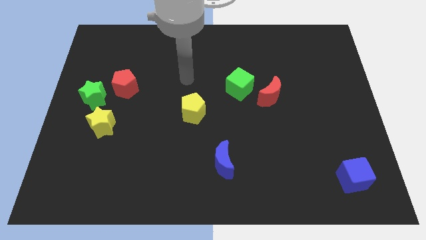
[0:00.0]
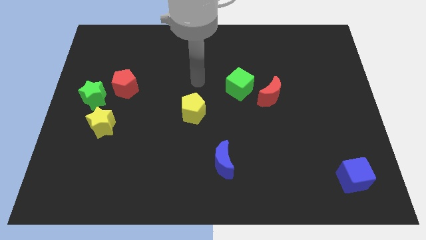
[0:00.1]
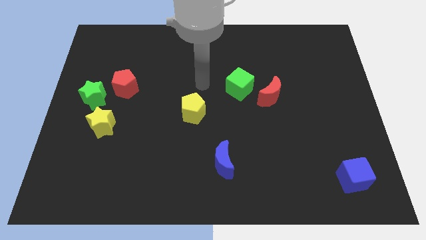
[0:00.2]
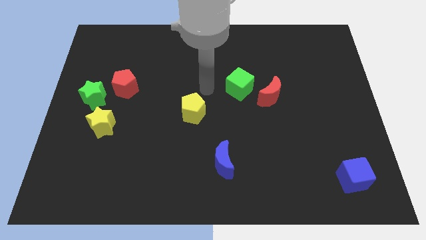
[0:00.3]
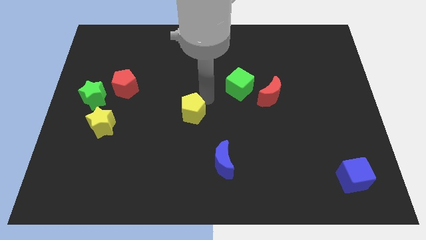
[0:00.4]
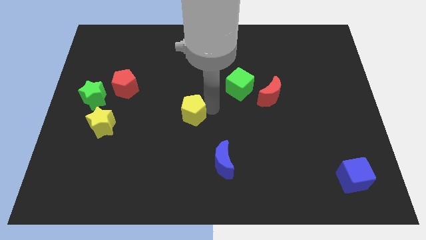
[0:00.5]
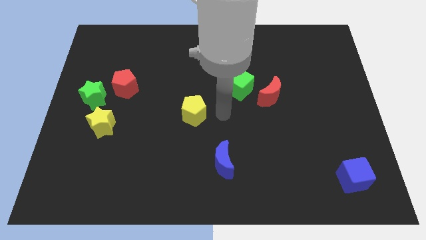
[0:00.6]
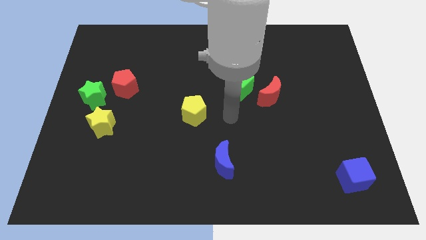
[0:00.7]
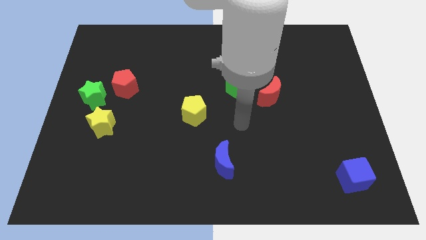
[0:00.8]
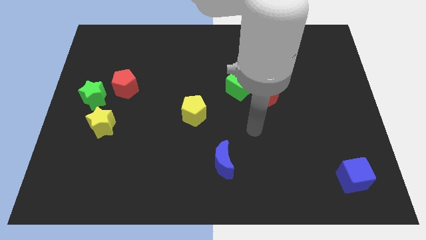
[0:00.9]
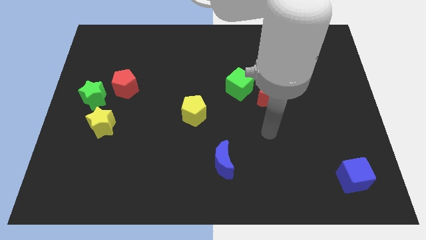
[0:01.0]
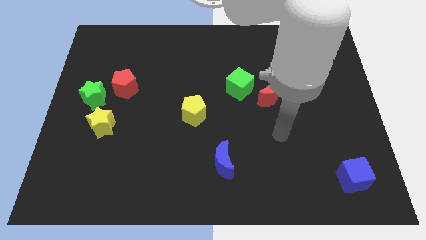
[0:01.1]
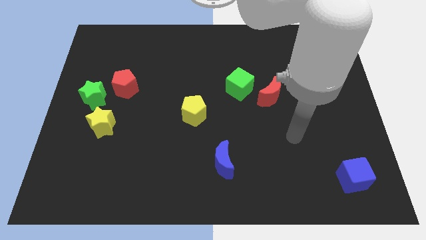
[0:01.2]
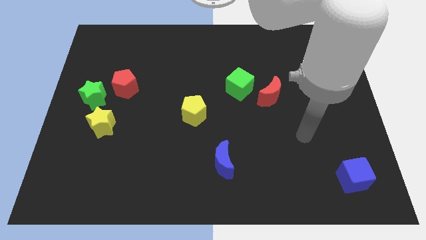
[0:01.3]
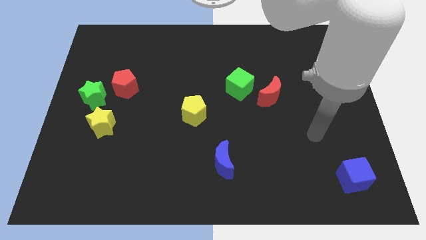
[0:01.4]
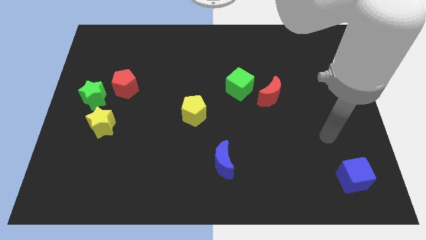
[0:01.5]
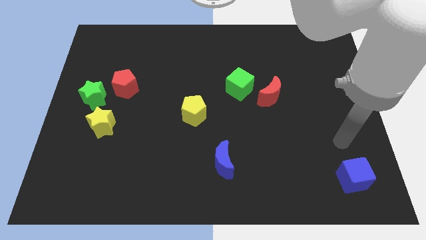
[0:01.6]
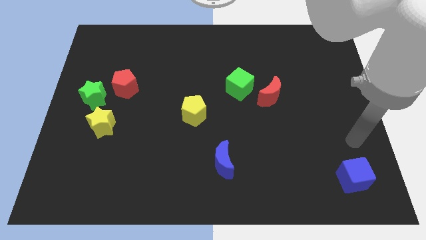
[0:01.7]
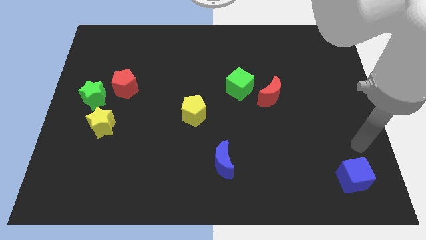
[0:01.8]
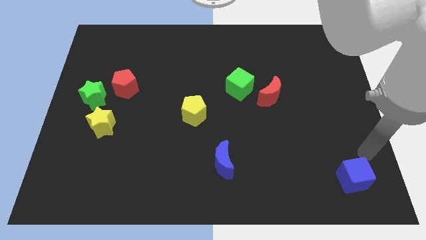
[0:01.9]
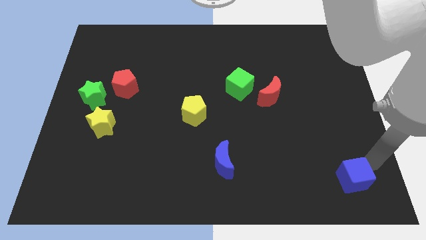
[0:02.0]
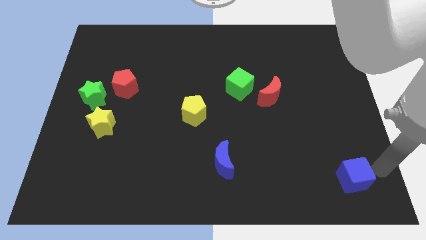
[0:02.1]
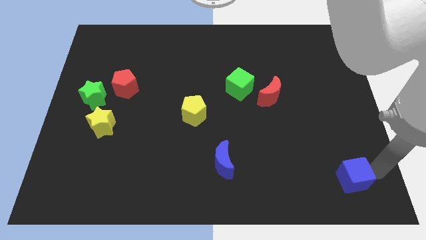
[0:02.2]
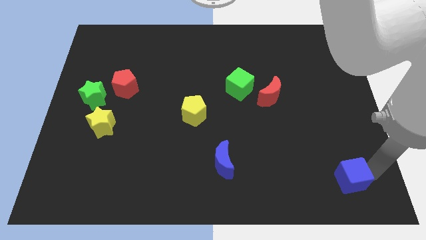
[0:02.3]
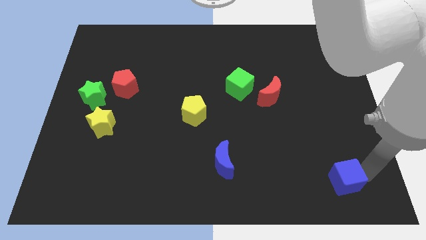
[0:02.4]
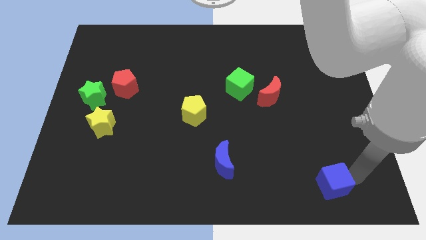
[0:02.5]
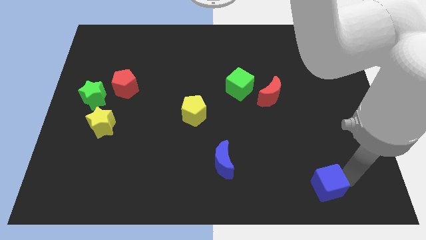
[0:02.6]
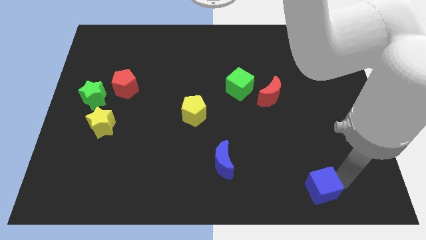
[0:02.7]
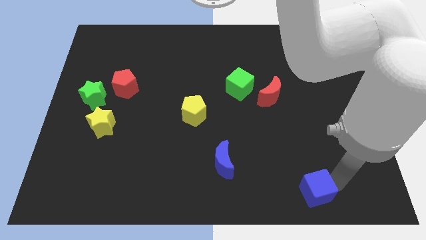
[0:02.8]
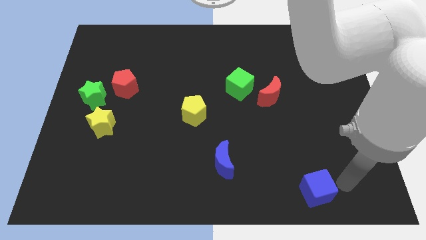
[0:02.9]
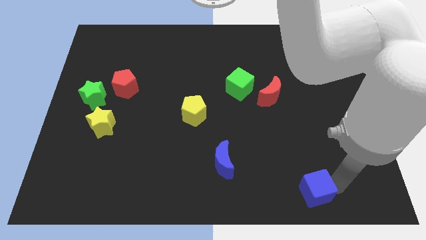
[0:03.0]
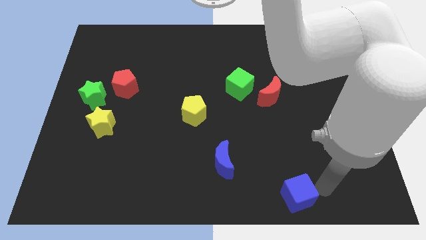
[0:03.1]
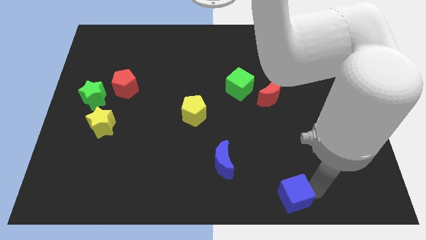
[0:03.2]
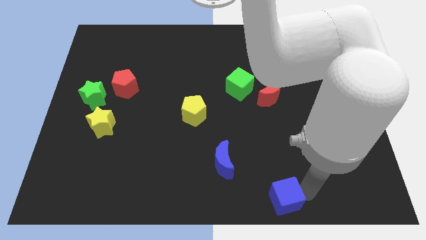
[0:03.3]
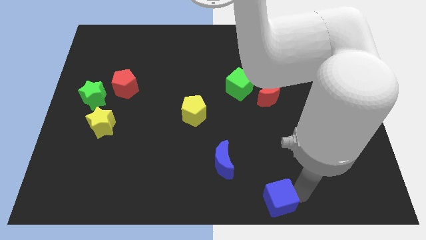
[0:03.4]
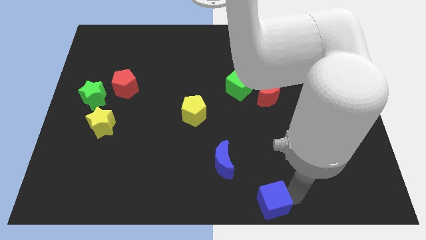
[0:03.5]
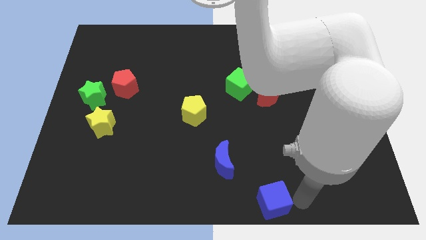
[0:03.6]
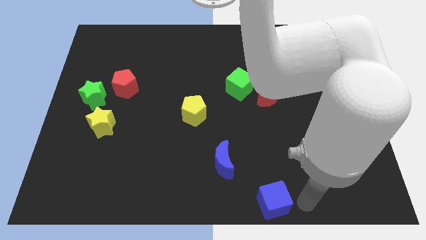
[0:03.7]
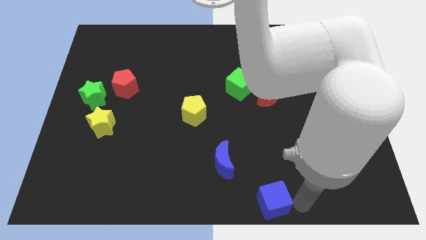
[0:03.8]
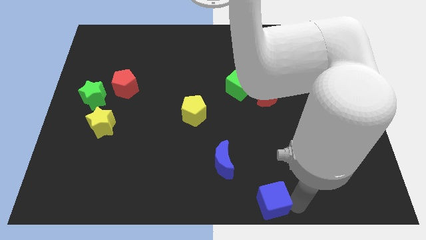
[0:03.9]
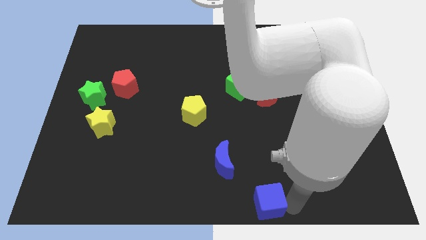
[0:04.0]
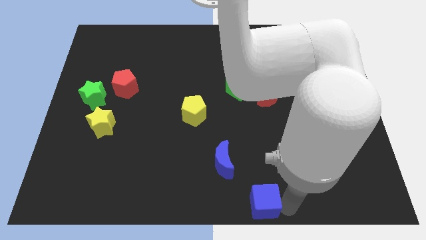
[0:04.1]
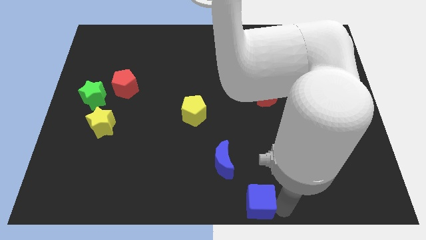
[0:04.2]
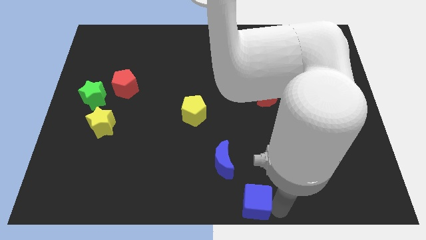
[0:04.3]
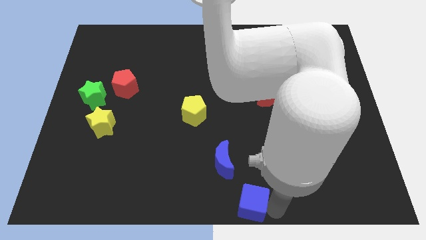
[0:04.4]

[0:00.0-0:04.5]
push the blue cube to the left

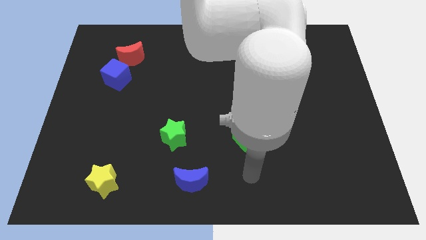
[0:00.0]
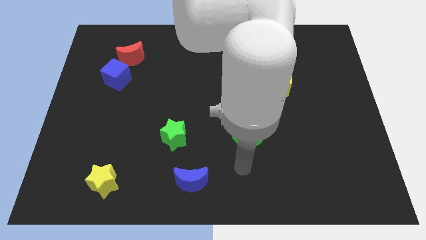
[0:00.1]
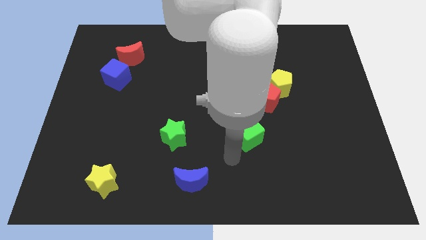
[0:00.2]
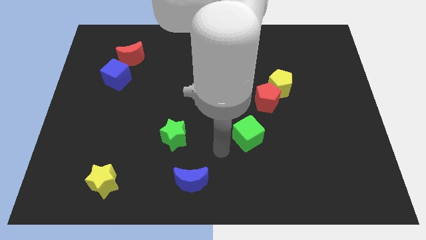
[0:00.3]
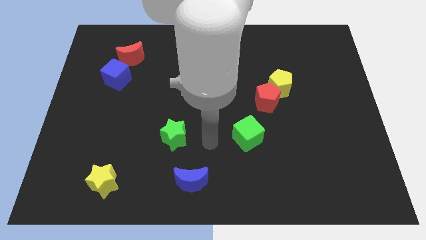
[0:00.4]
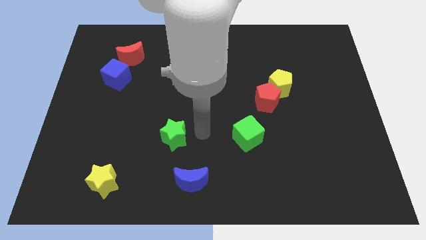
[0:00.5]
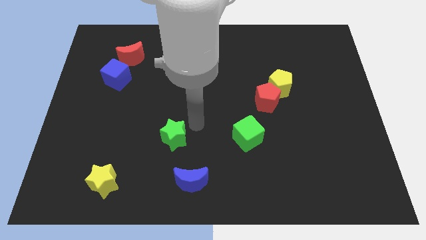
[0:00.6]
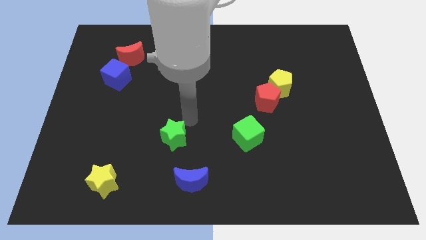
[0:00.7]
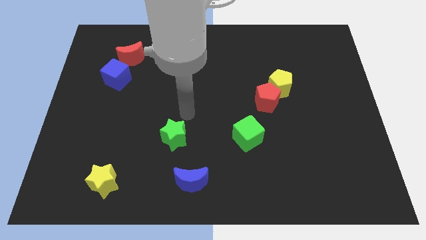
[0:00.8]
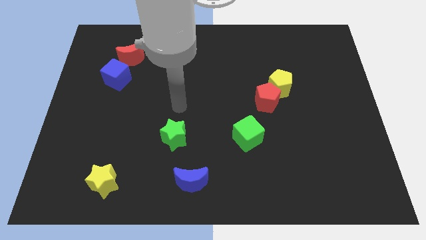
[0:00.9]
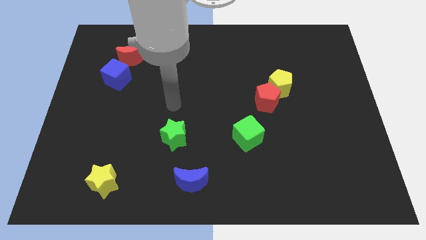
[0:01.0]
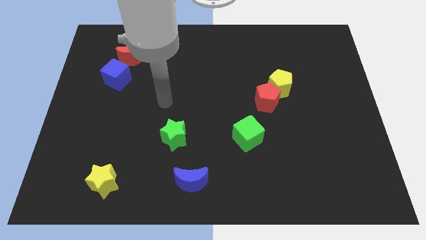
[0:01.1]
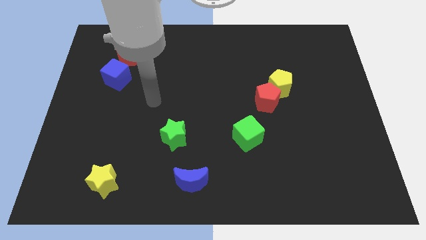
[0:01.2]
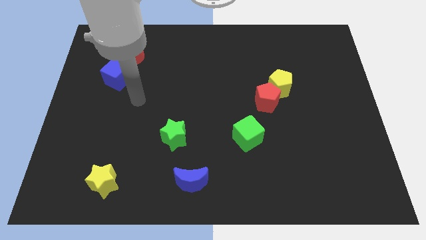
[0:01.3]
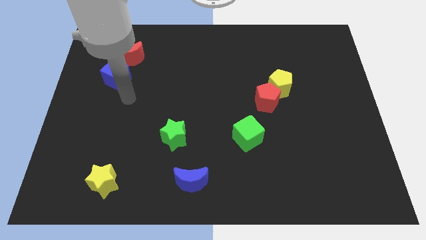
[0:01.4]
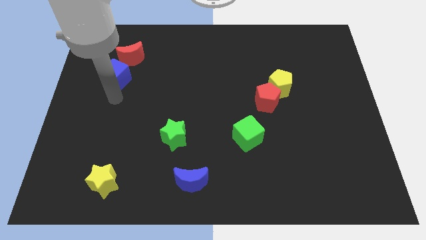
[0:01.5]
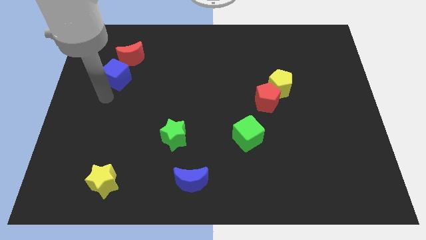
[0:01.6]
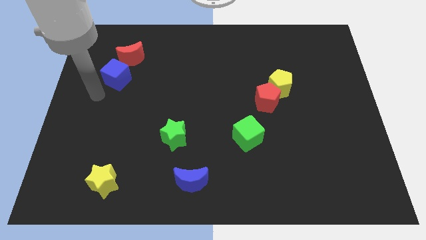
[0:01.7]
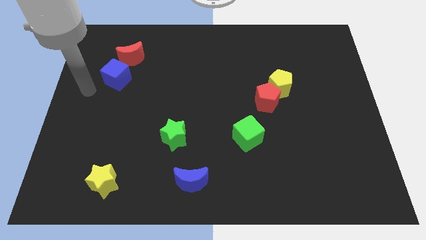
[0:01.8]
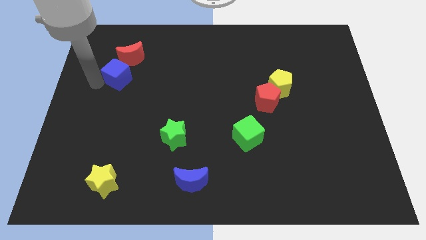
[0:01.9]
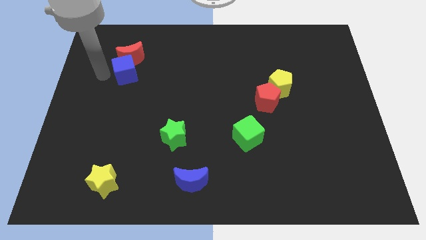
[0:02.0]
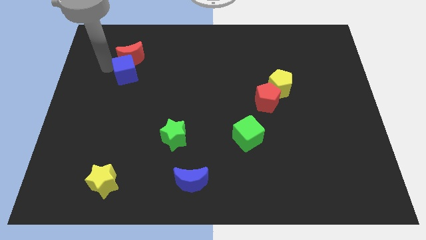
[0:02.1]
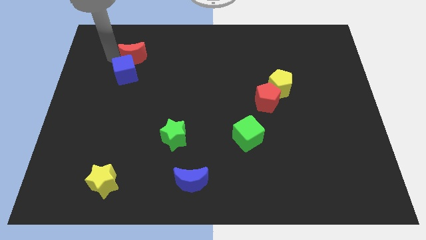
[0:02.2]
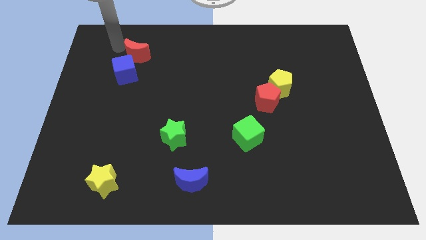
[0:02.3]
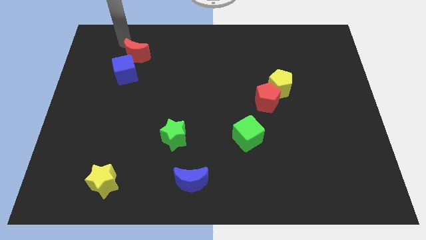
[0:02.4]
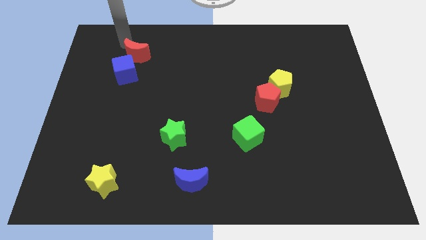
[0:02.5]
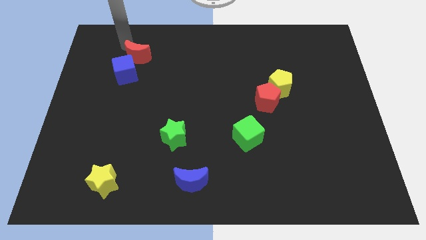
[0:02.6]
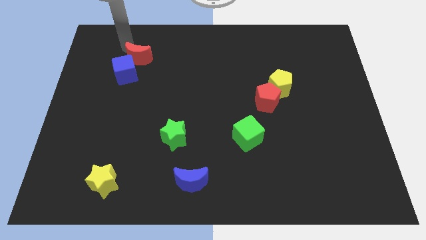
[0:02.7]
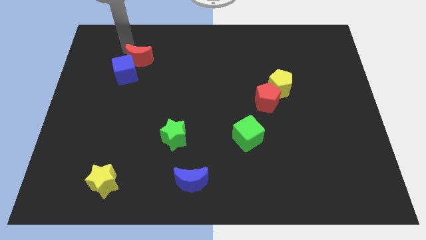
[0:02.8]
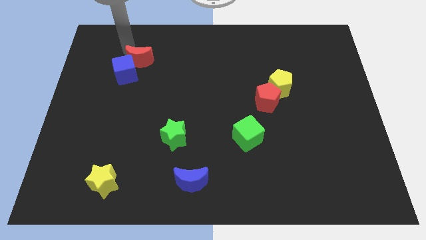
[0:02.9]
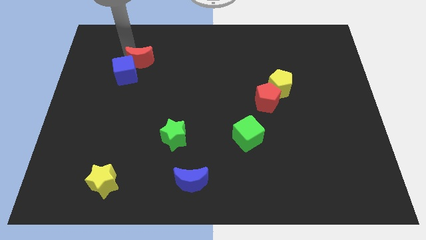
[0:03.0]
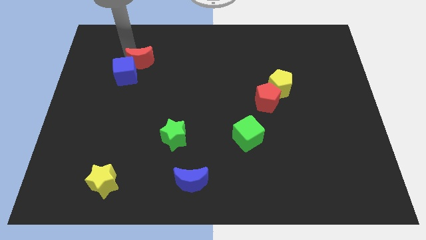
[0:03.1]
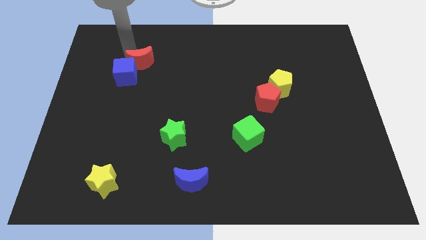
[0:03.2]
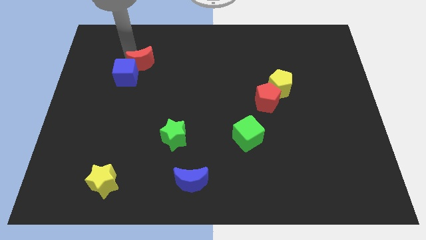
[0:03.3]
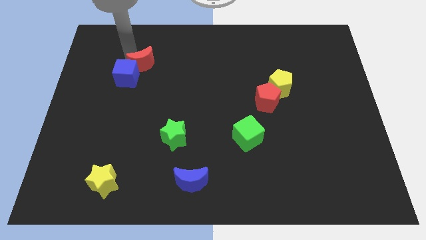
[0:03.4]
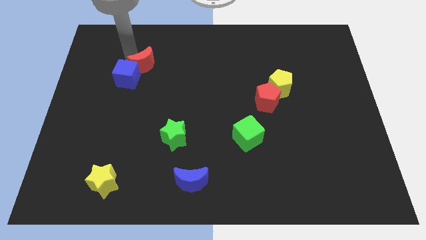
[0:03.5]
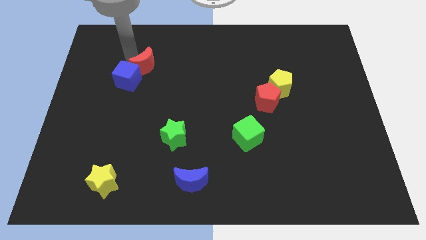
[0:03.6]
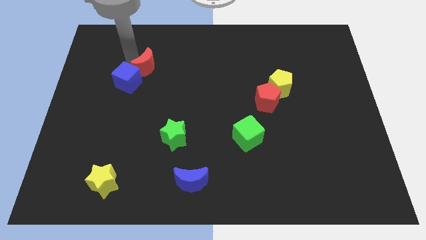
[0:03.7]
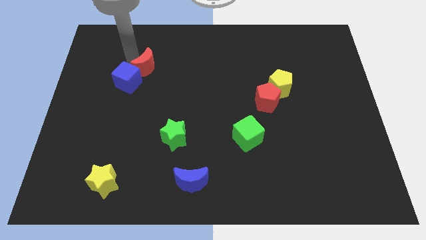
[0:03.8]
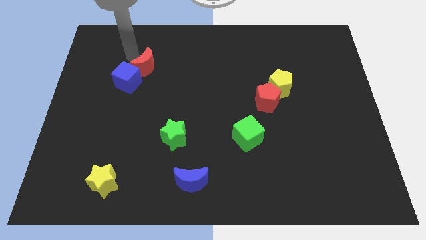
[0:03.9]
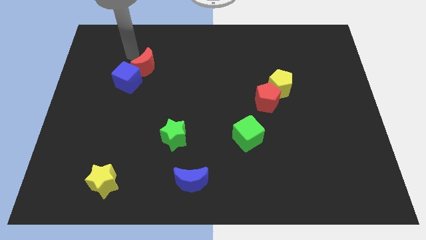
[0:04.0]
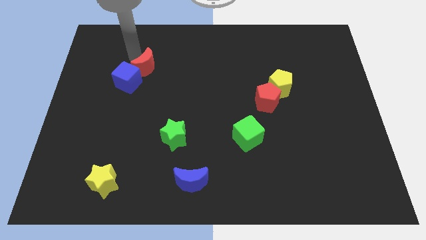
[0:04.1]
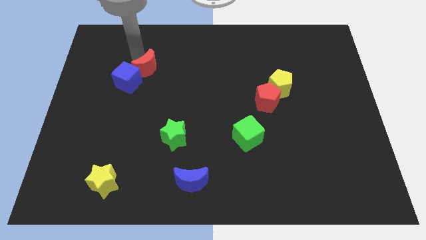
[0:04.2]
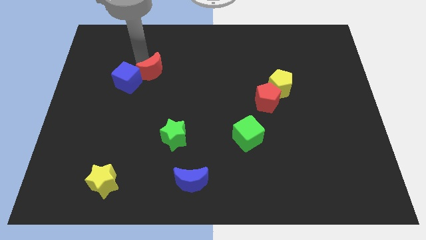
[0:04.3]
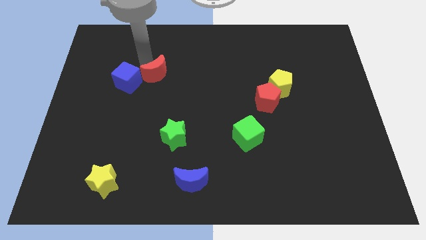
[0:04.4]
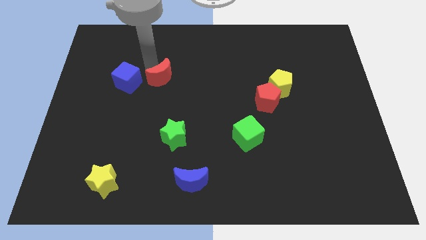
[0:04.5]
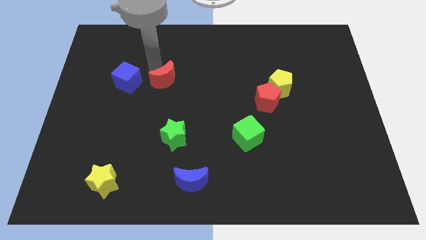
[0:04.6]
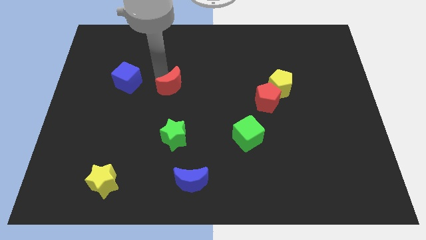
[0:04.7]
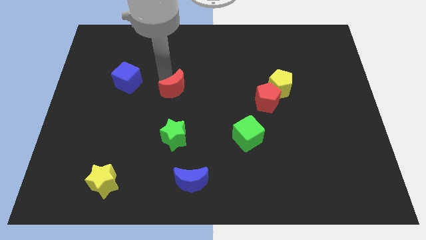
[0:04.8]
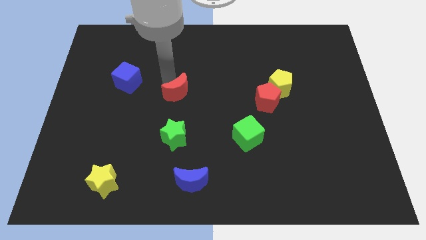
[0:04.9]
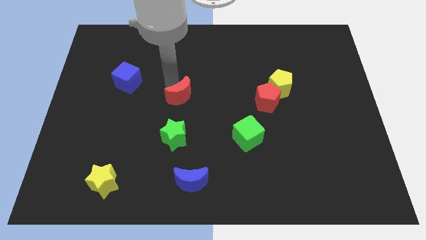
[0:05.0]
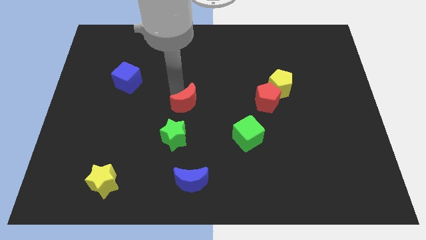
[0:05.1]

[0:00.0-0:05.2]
push the red moon down and right
